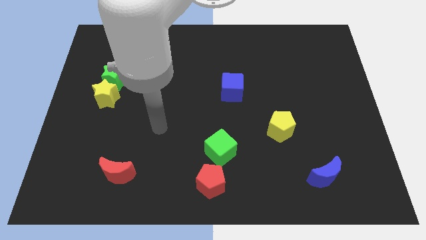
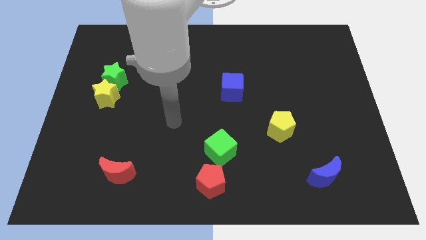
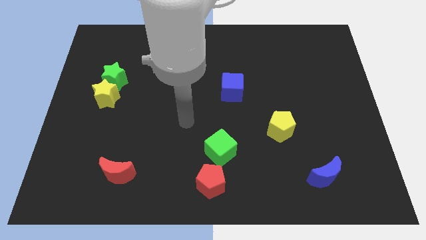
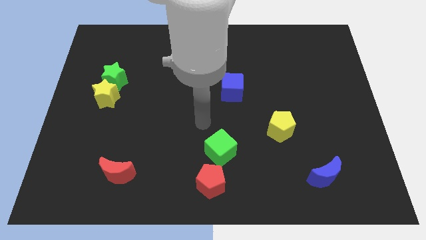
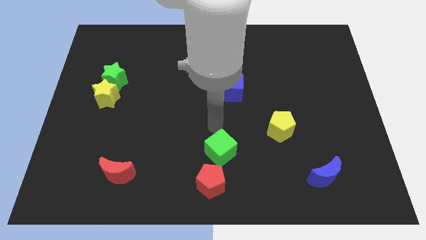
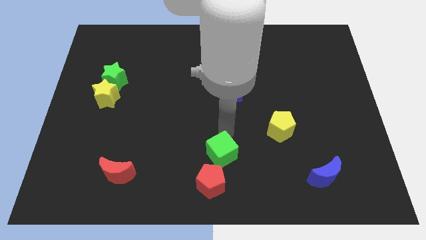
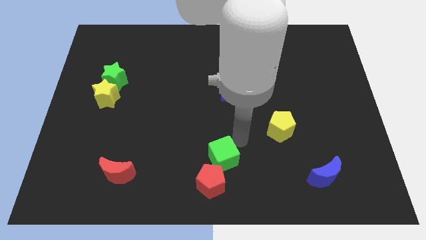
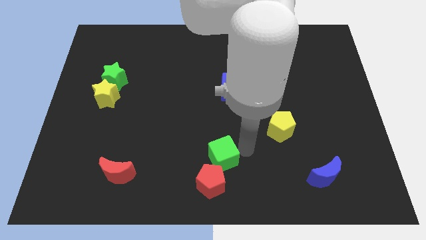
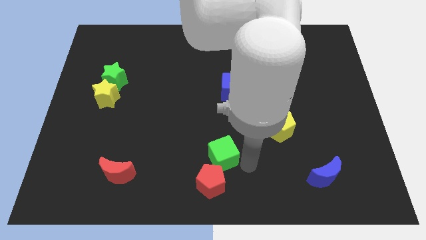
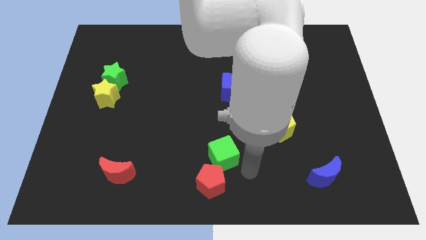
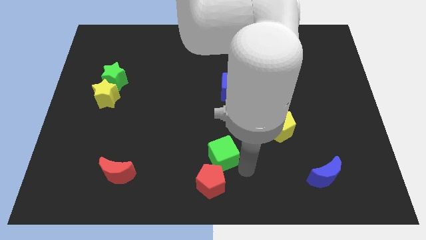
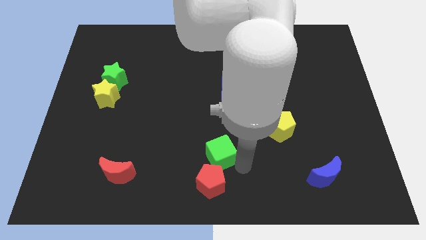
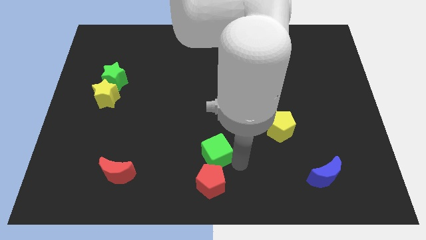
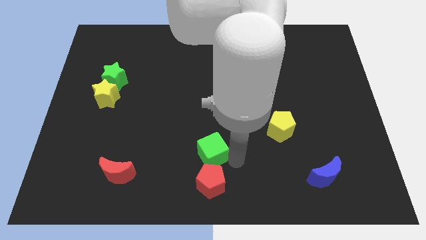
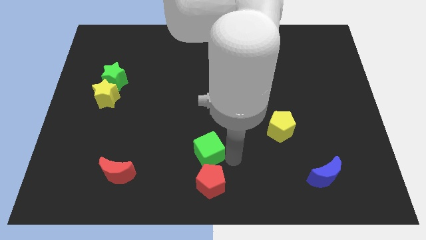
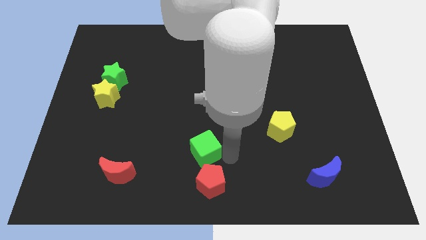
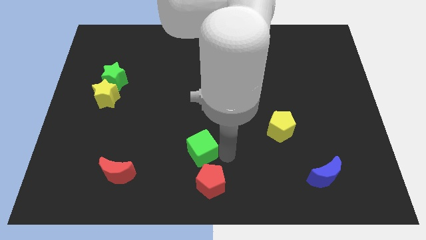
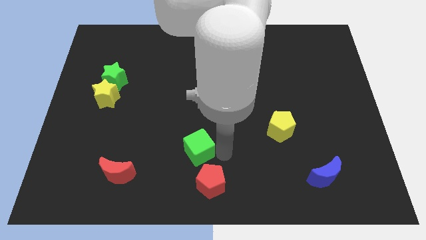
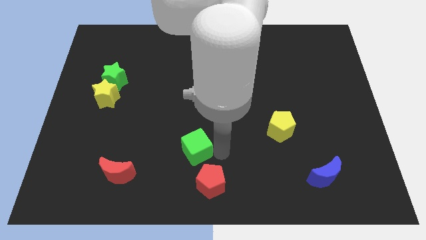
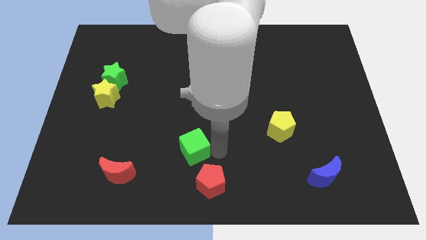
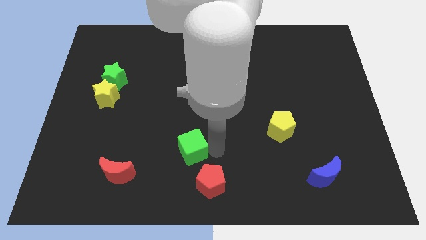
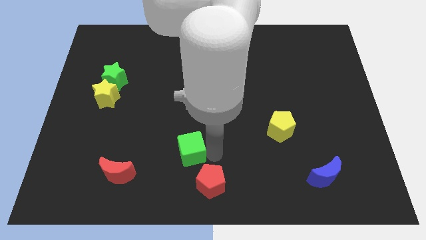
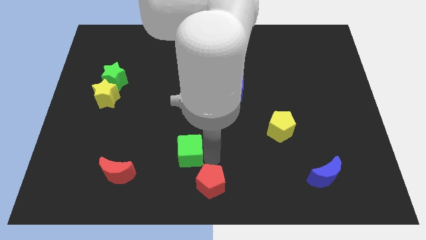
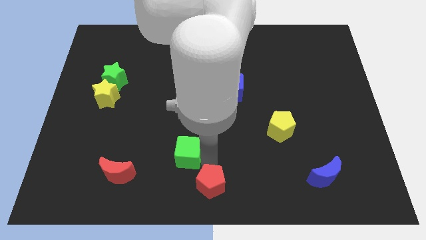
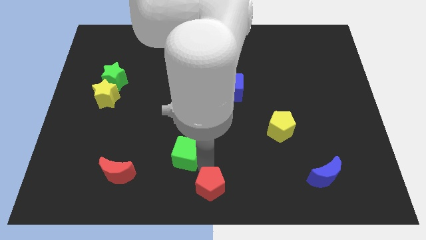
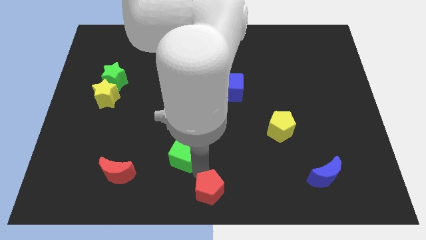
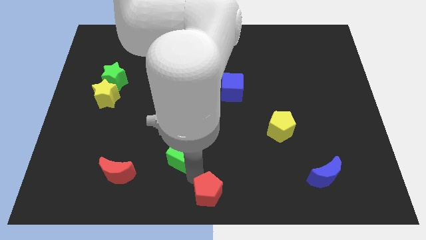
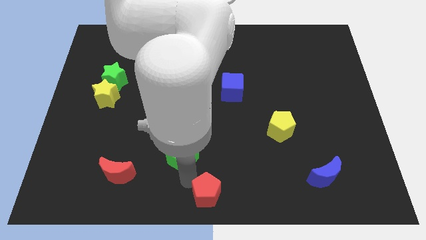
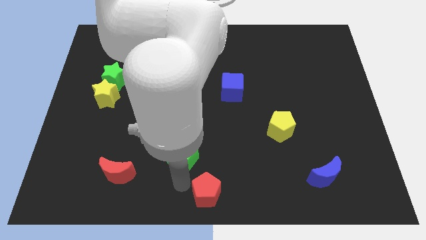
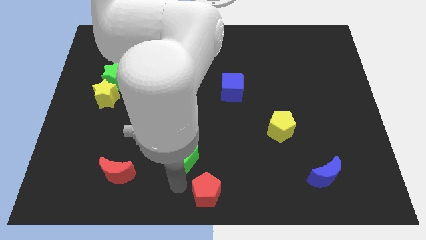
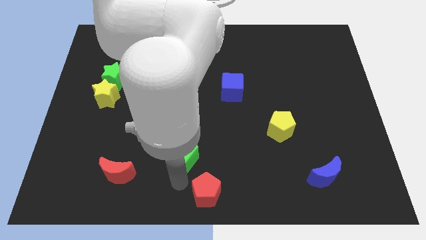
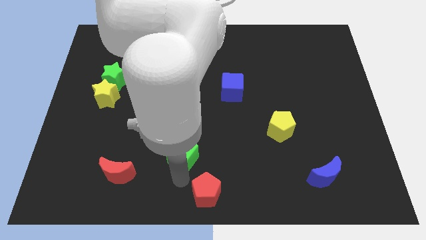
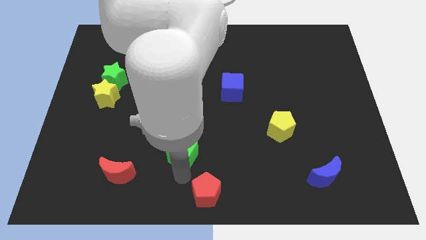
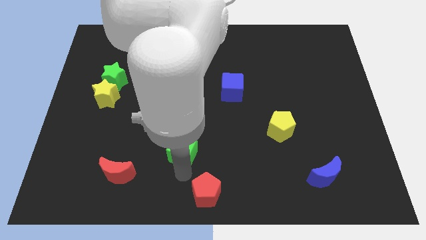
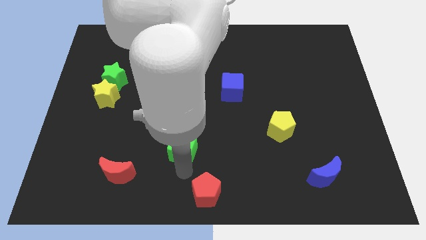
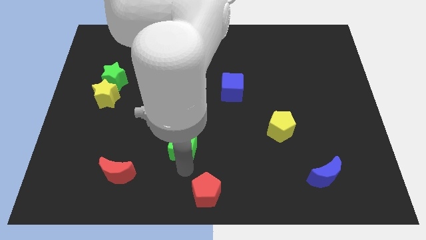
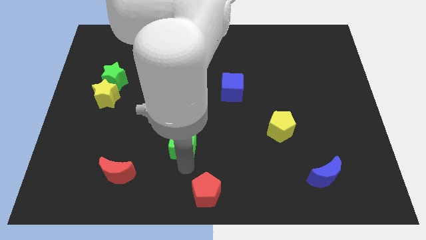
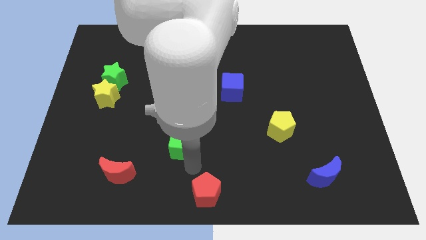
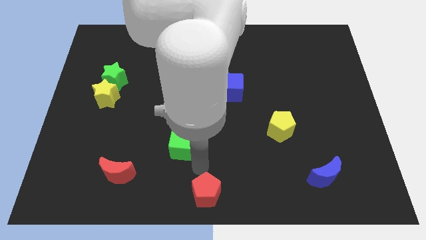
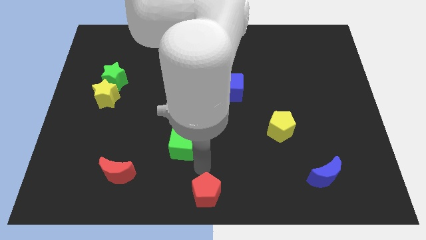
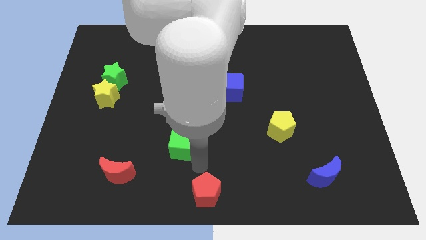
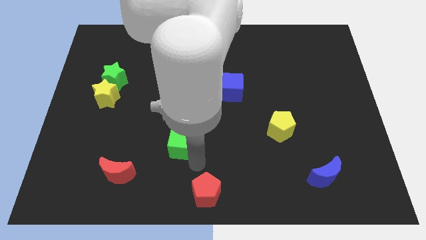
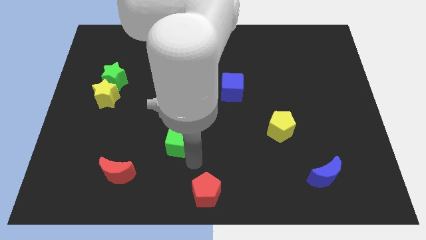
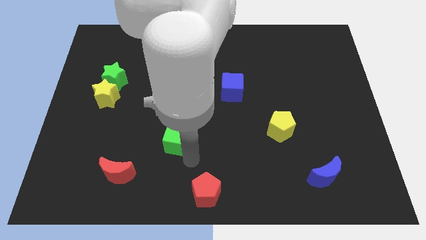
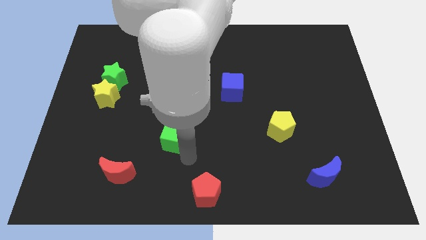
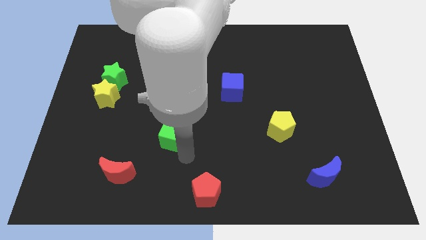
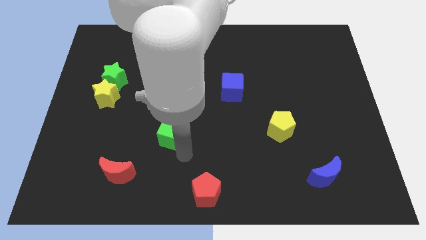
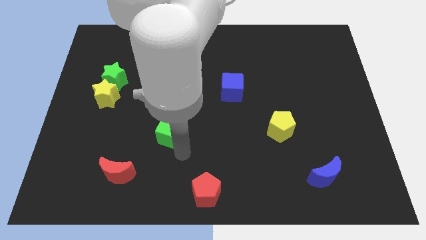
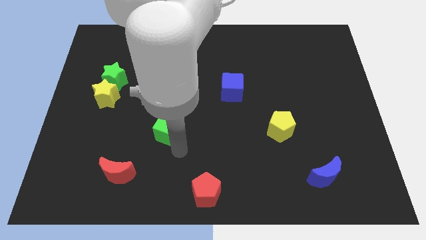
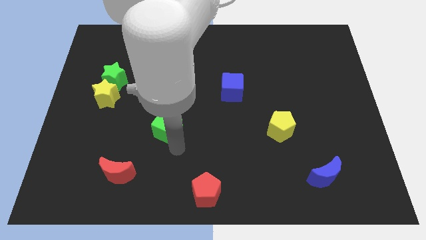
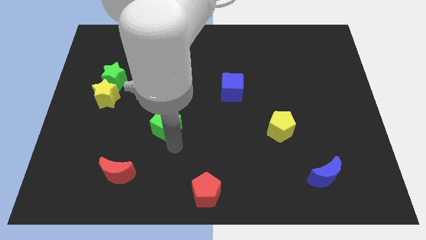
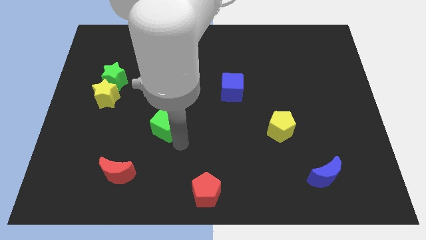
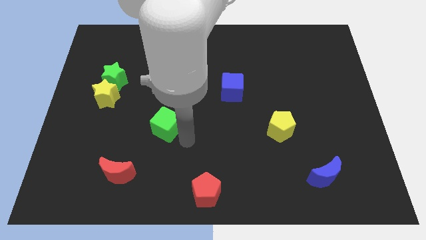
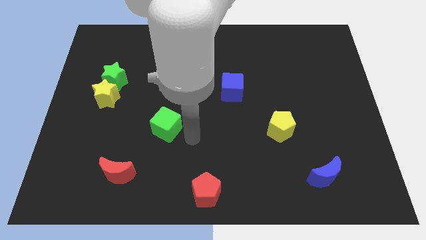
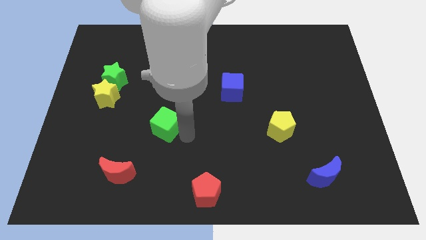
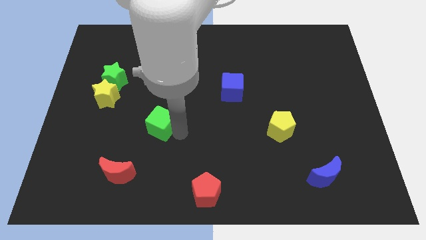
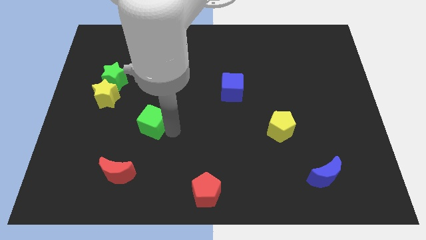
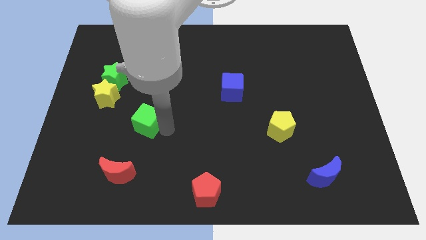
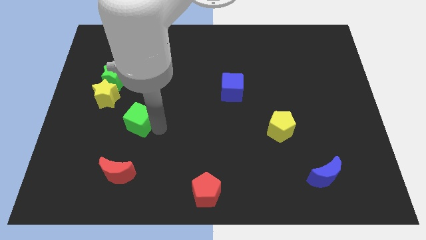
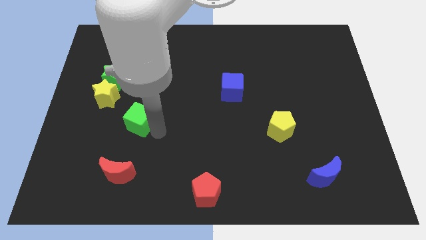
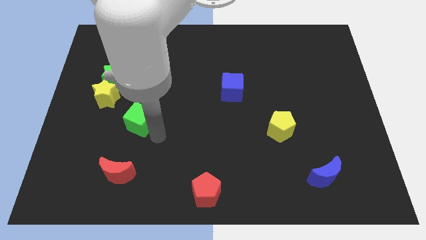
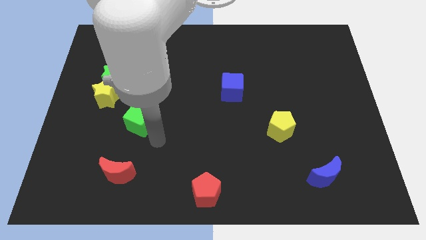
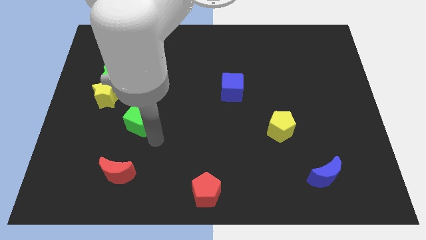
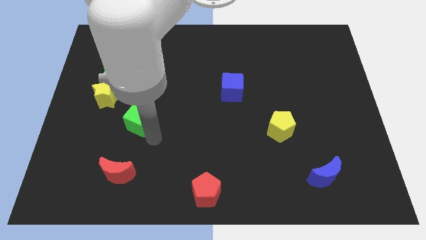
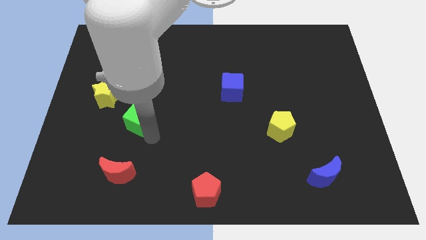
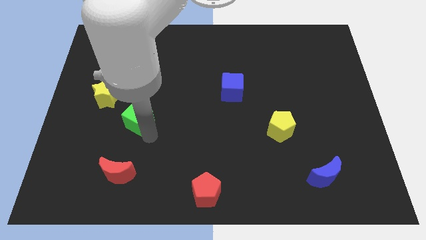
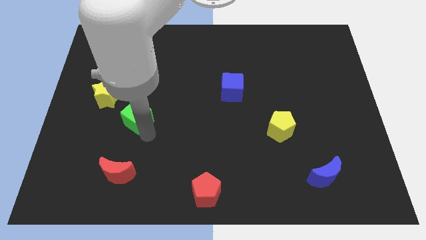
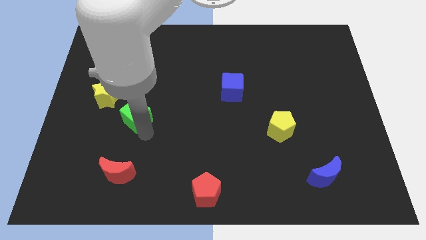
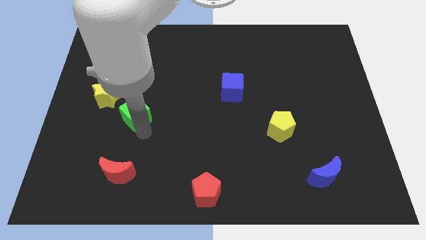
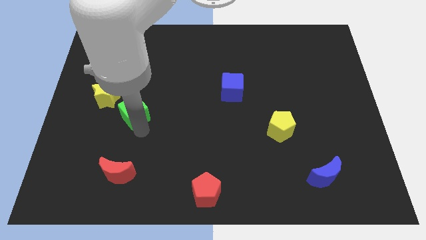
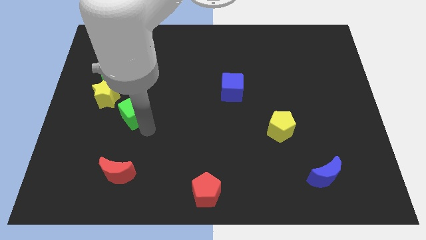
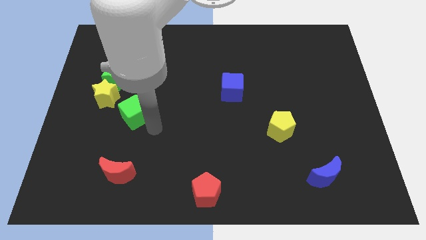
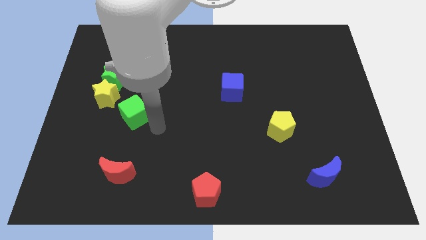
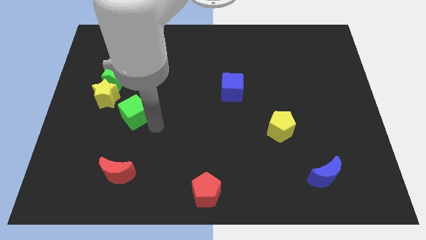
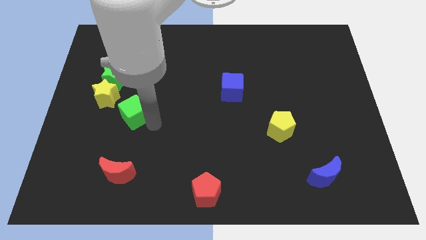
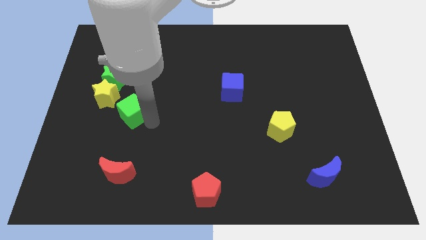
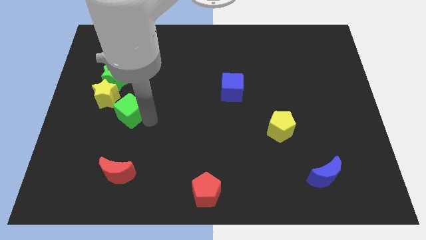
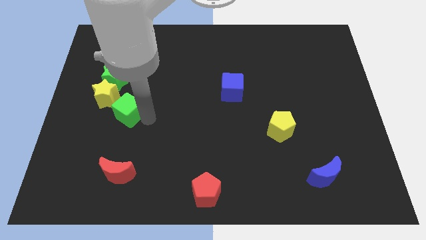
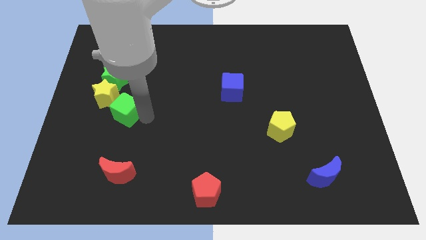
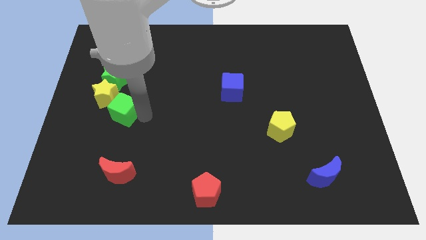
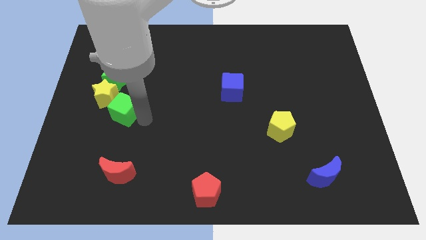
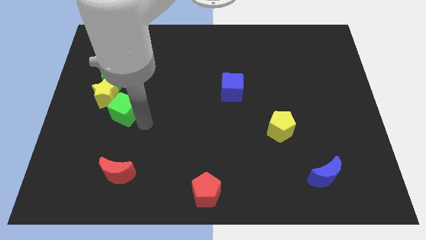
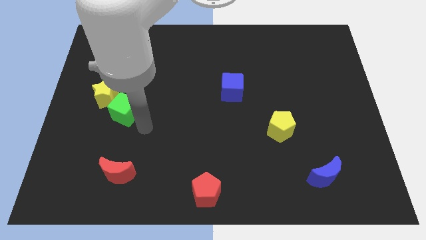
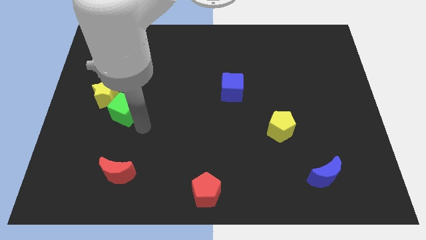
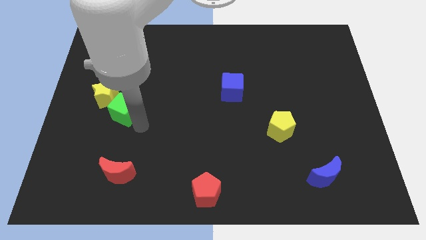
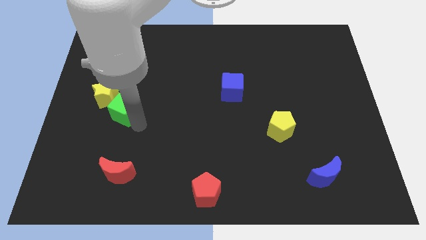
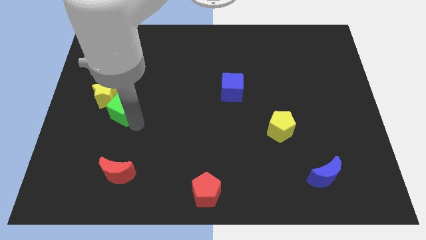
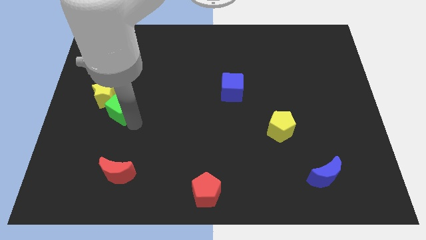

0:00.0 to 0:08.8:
put the green cube next to the yellow star
